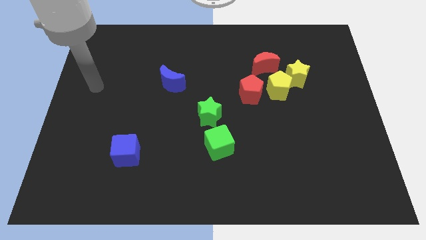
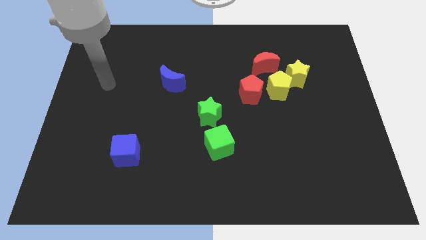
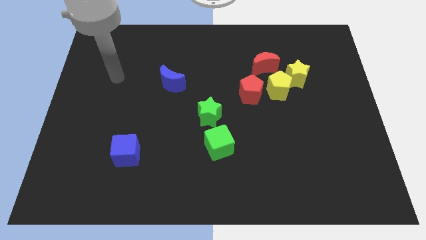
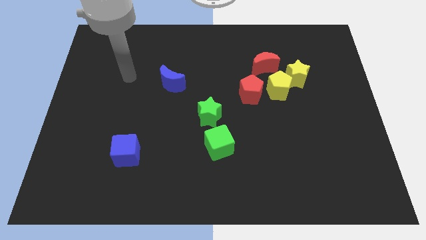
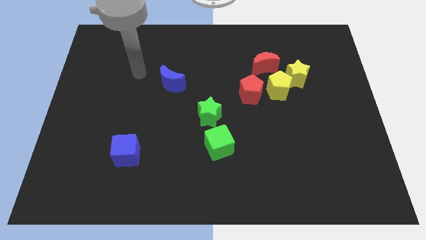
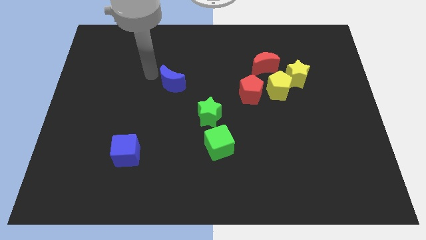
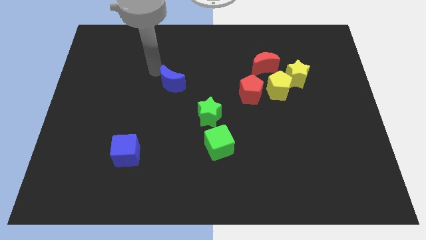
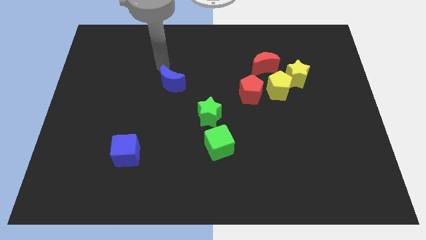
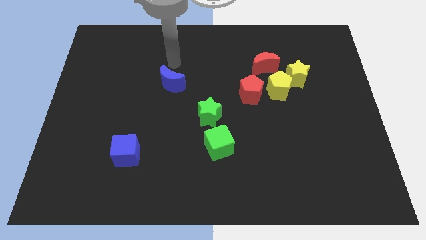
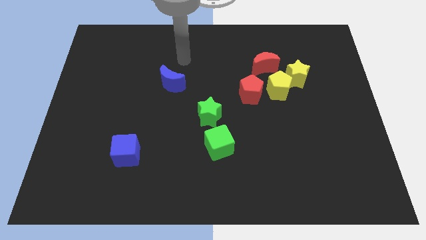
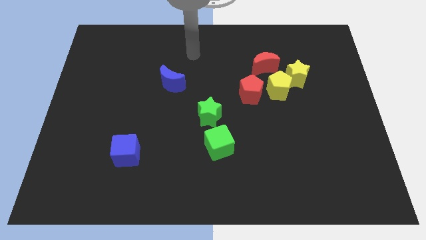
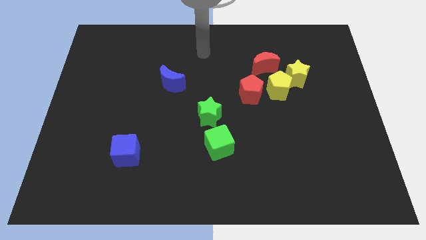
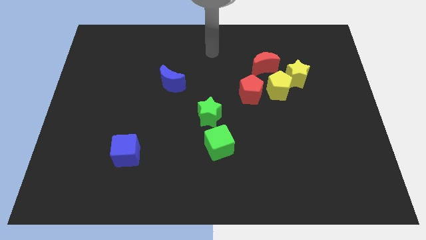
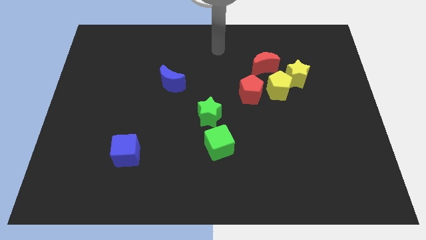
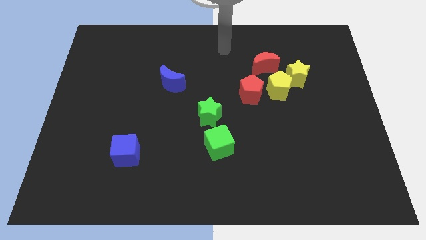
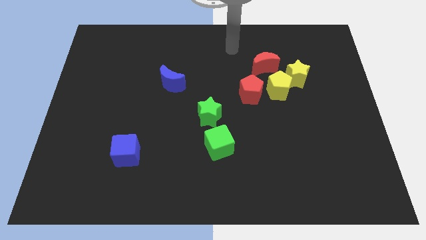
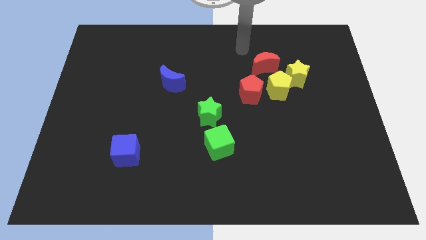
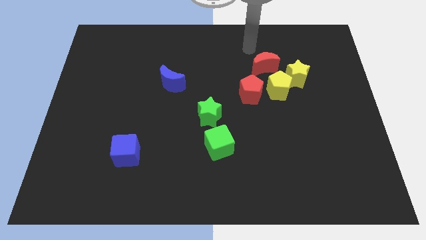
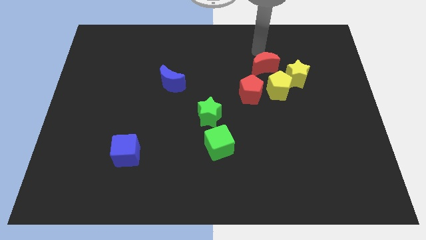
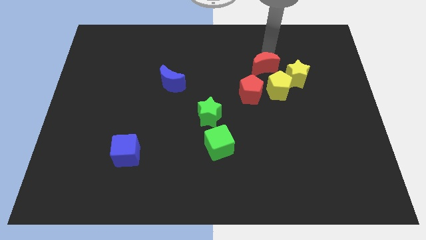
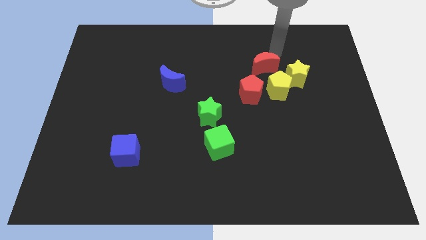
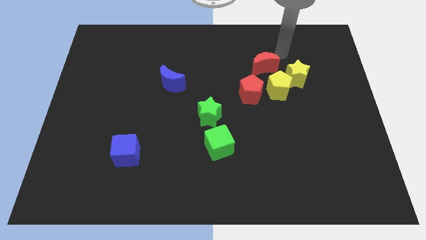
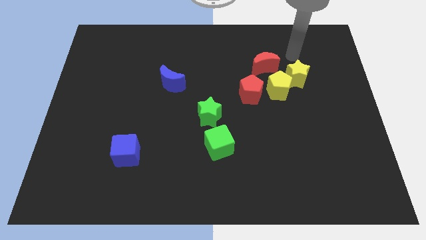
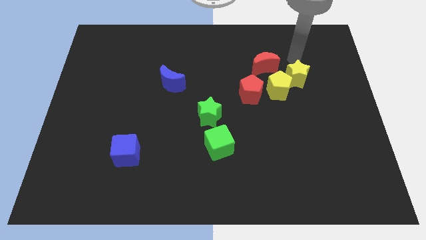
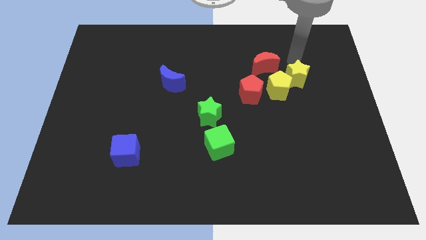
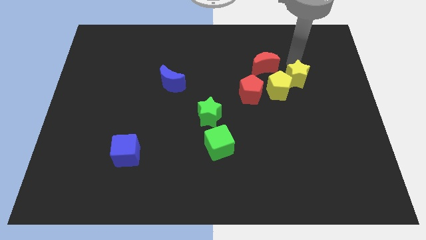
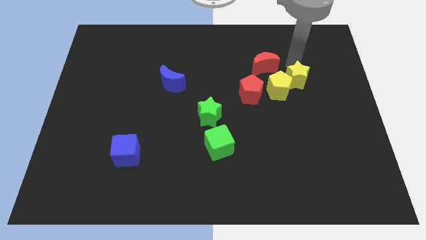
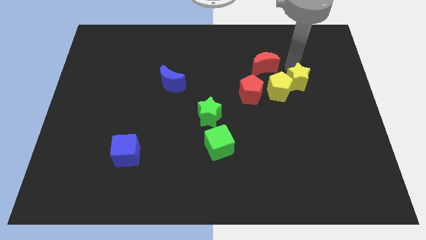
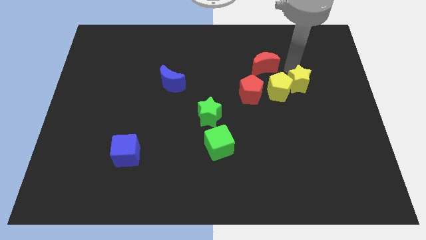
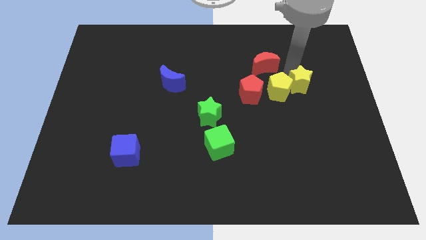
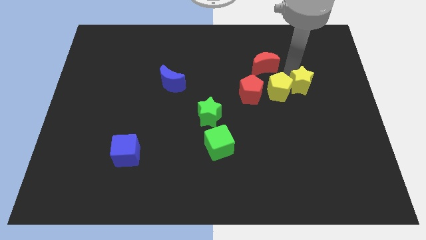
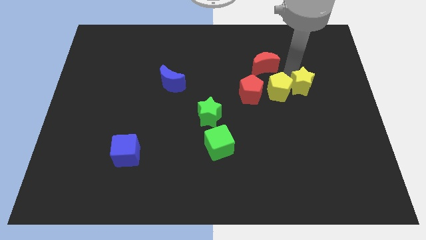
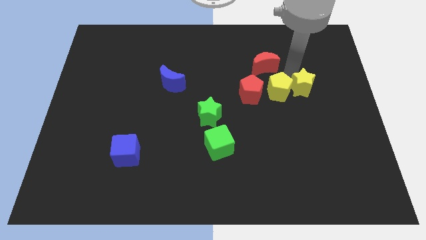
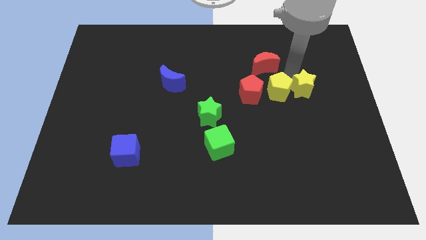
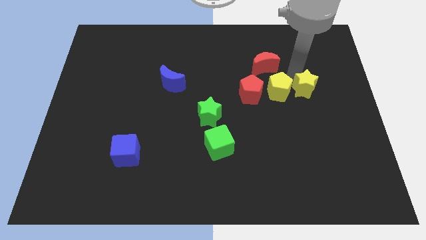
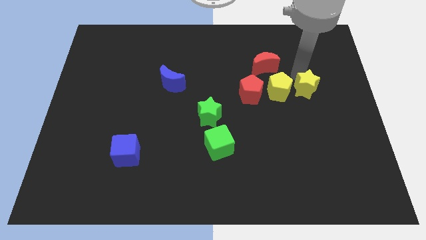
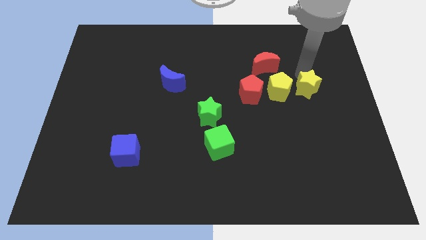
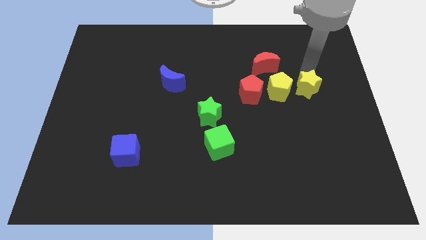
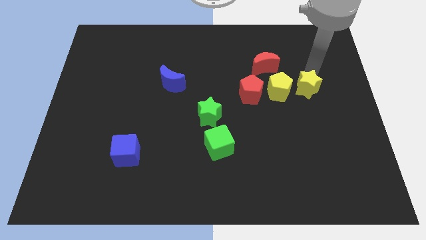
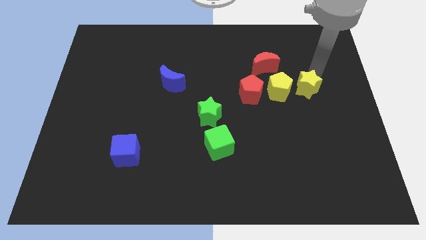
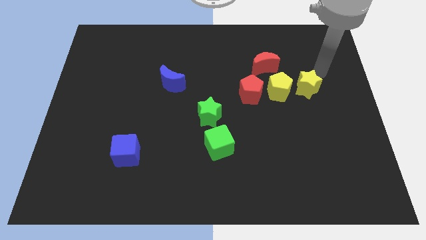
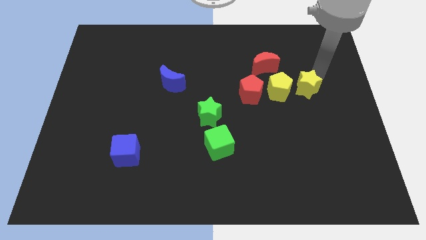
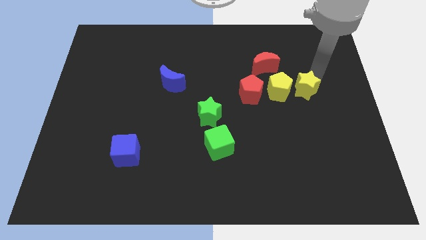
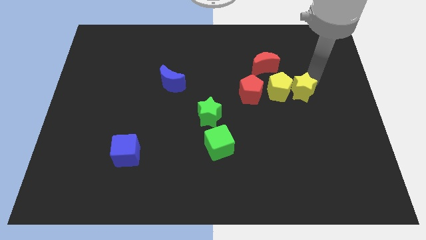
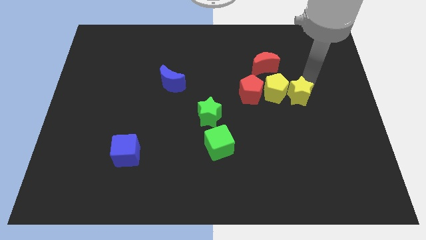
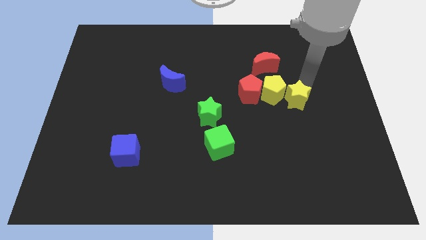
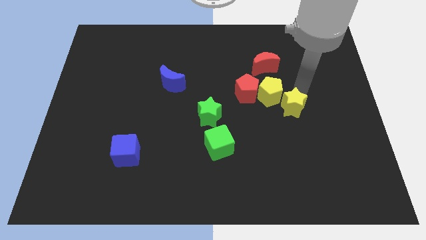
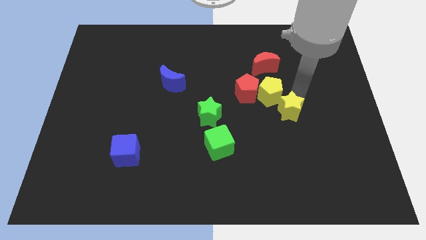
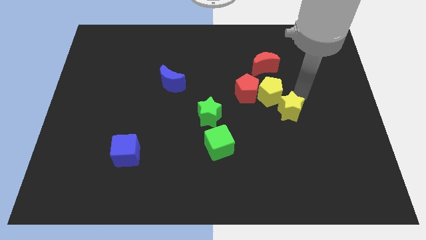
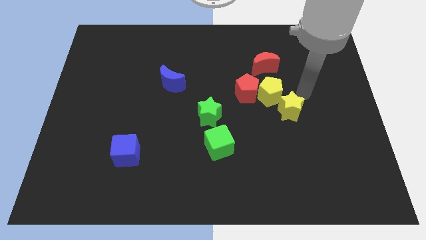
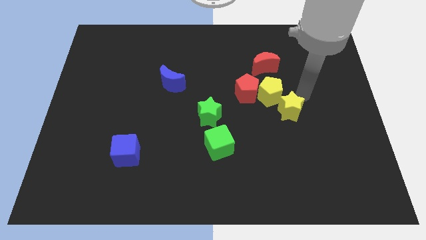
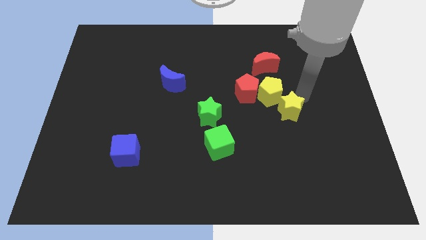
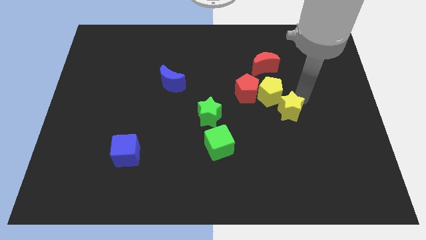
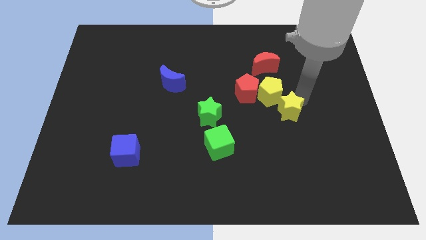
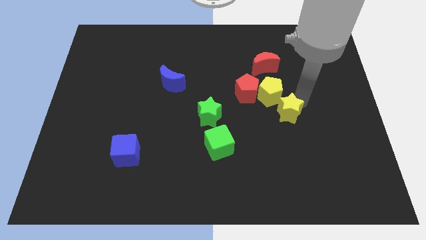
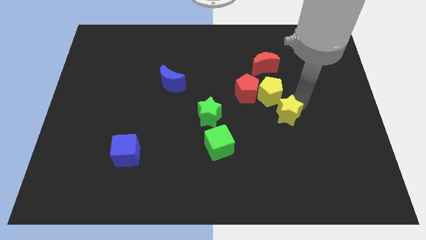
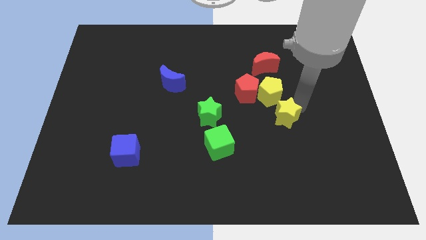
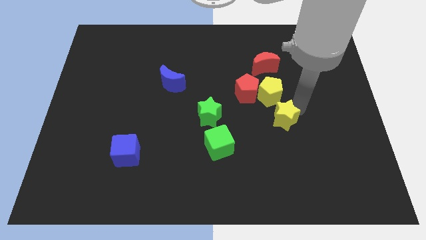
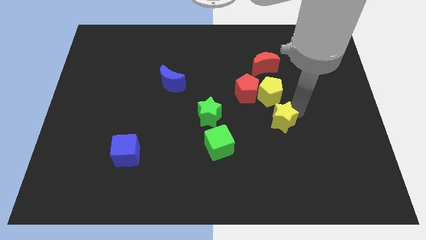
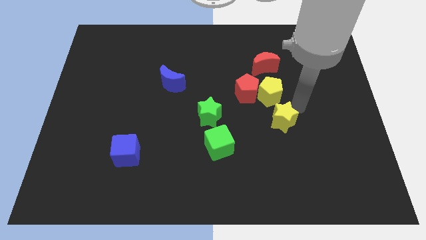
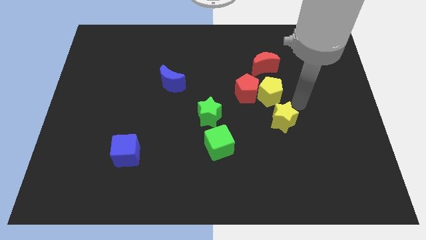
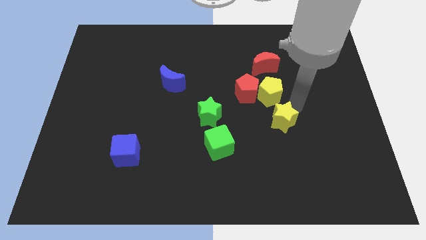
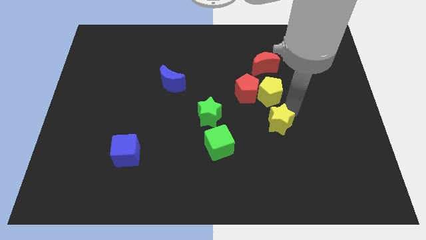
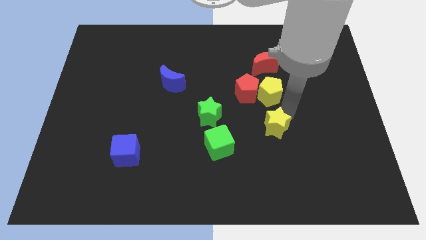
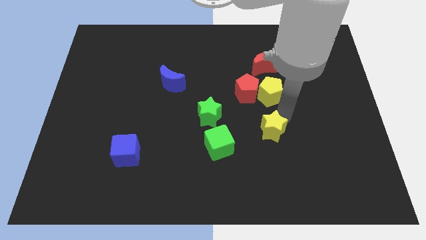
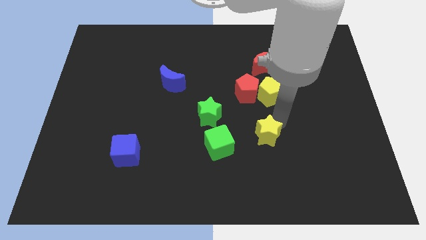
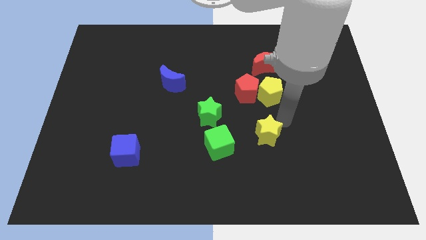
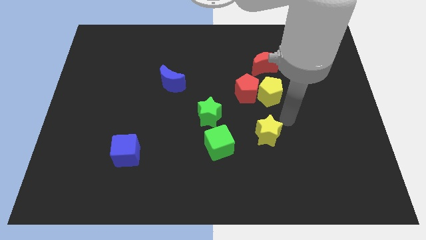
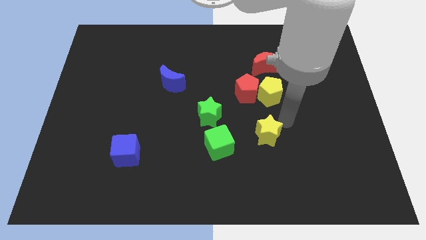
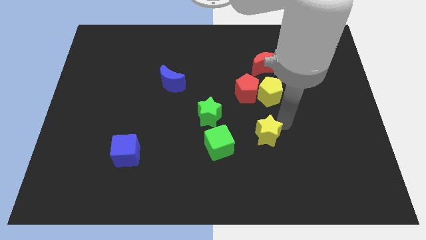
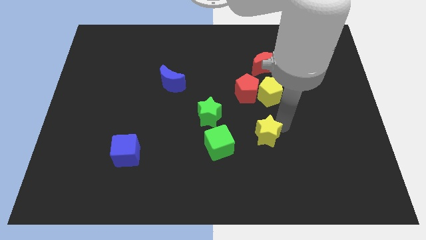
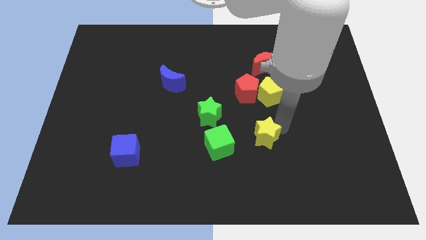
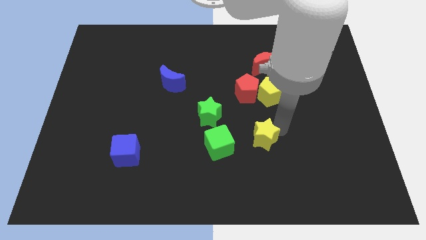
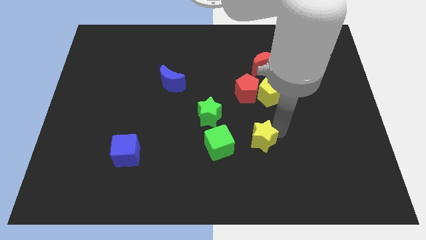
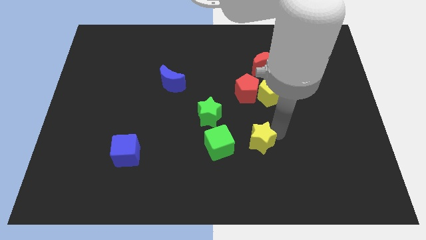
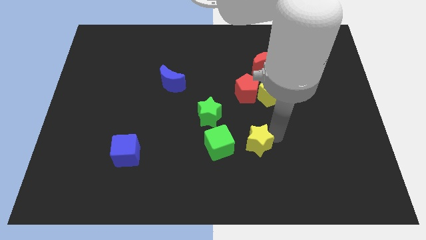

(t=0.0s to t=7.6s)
move the yellow star downwards and then to the left

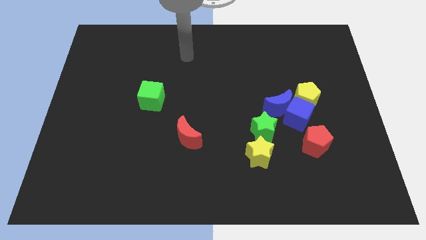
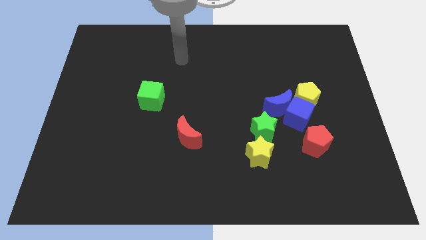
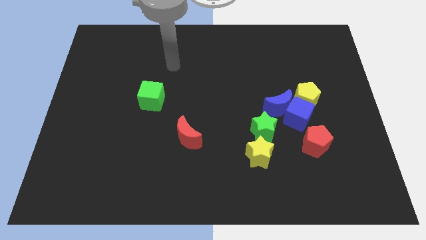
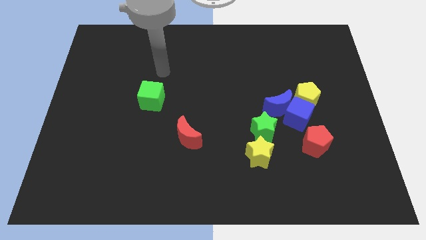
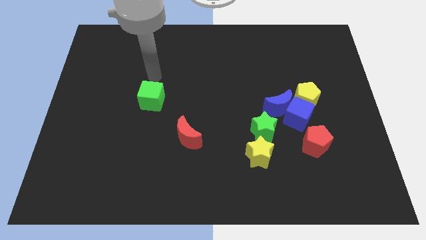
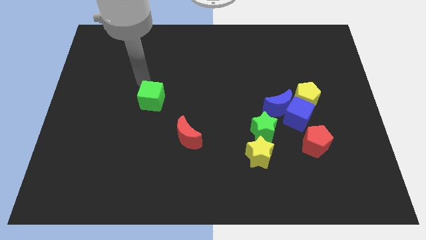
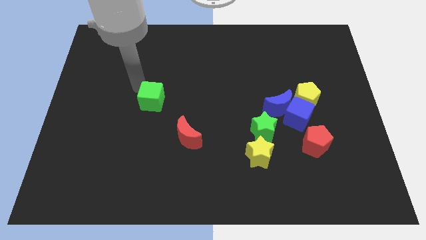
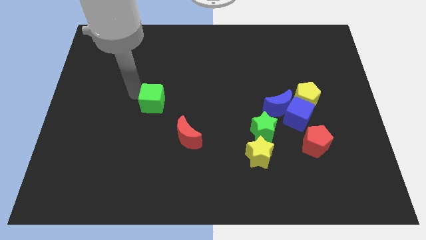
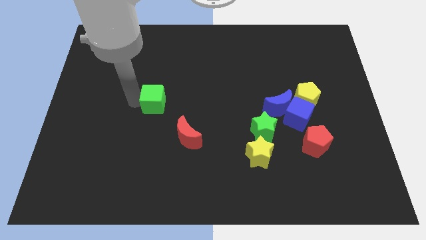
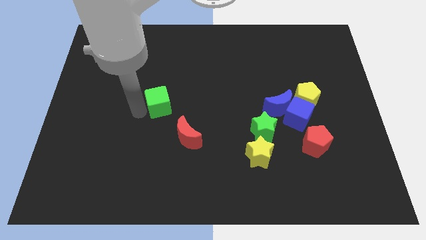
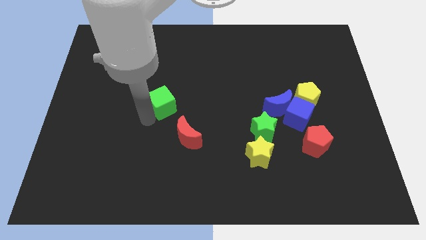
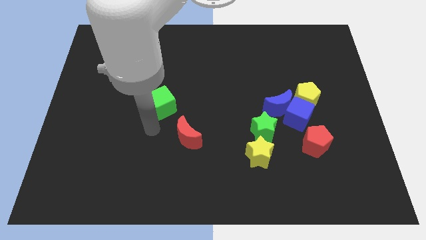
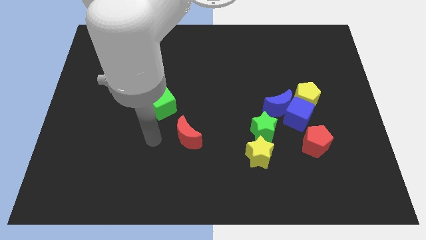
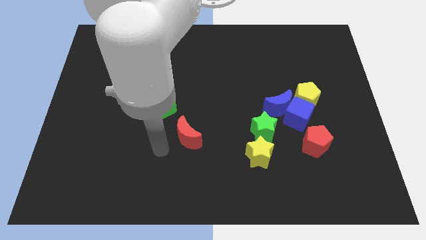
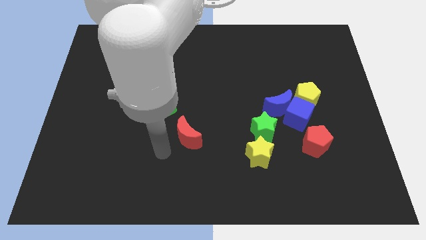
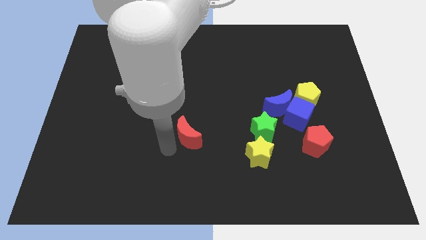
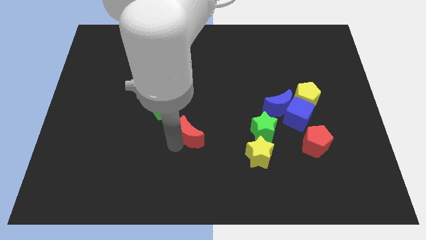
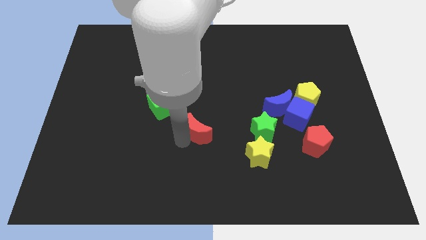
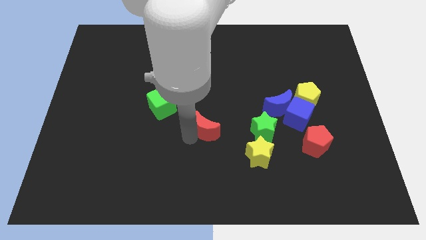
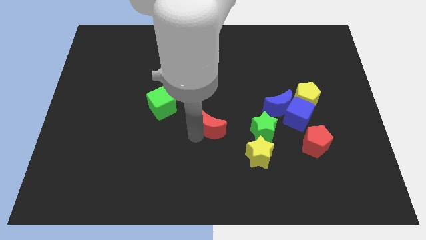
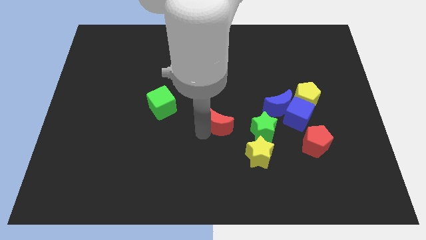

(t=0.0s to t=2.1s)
slightly move the red moon up and right diagonally
